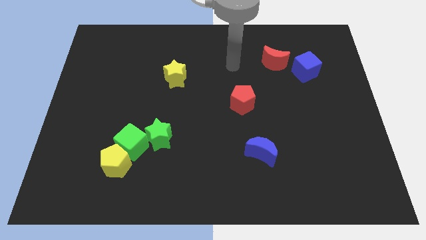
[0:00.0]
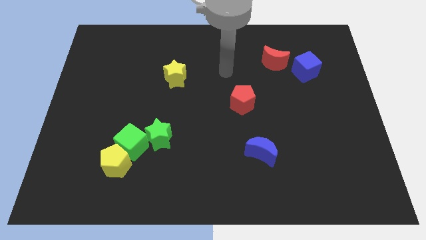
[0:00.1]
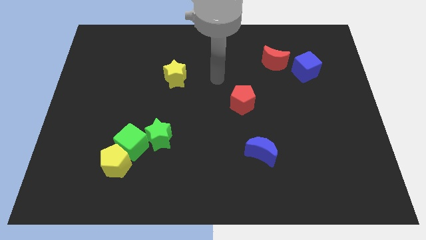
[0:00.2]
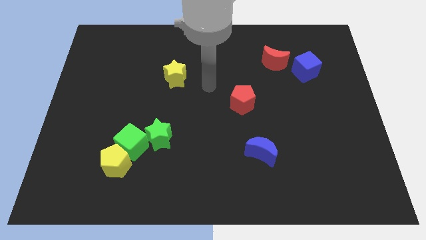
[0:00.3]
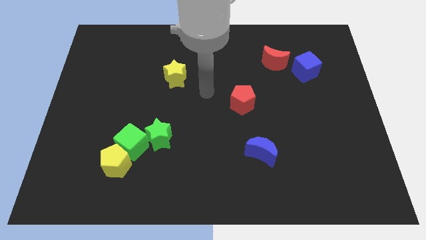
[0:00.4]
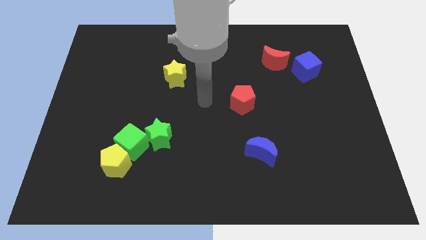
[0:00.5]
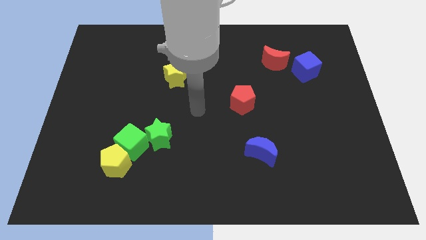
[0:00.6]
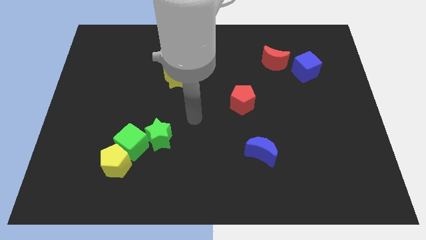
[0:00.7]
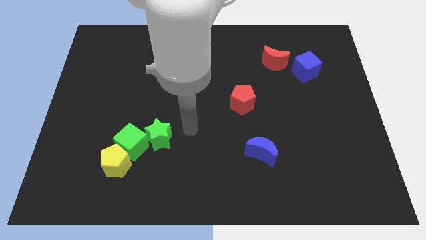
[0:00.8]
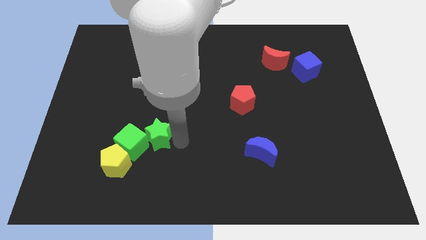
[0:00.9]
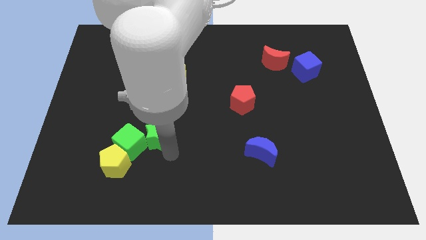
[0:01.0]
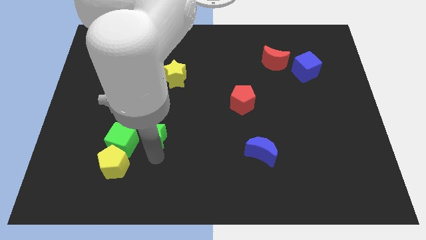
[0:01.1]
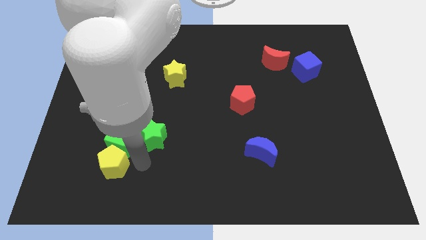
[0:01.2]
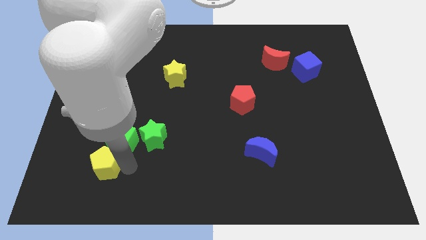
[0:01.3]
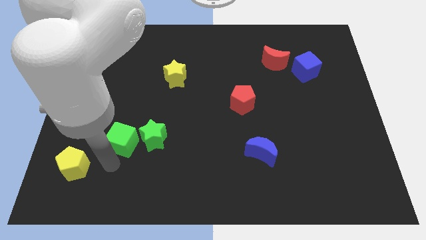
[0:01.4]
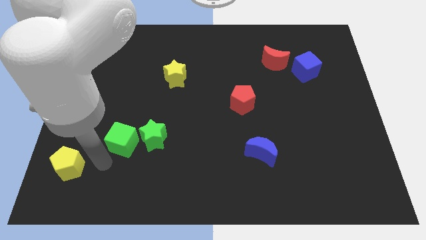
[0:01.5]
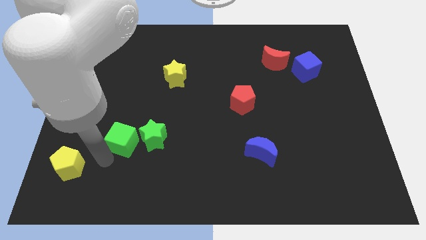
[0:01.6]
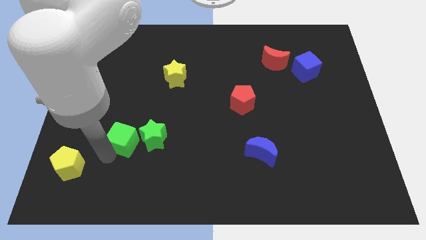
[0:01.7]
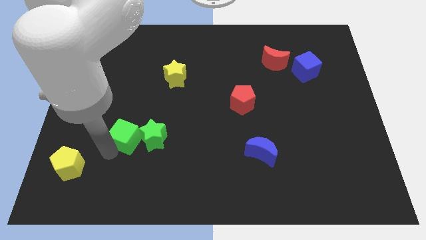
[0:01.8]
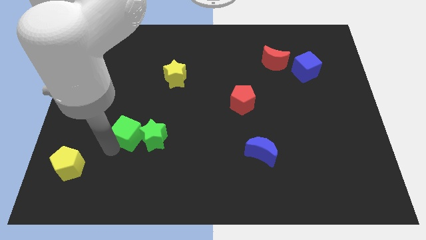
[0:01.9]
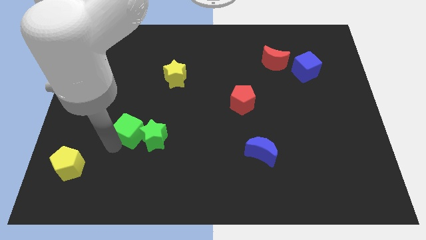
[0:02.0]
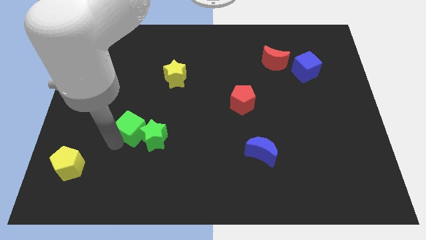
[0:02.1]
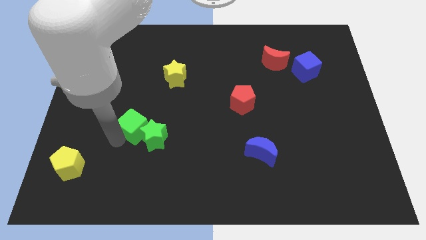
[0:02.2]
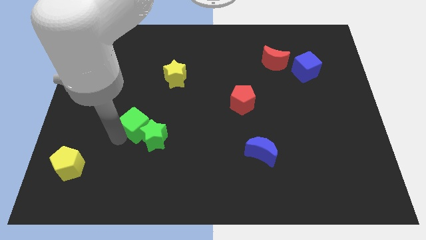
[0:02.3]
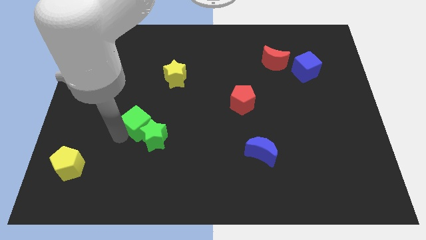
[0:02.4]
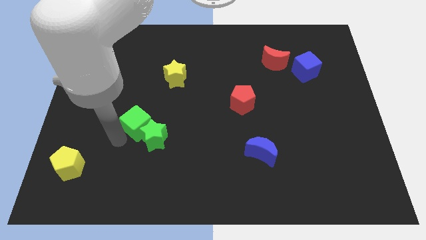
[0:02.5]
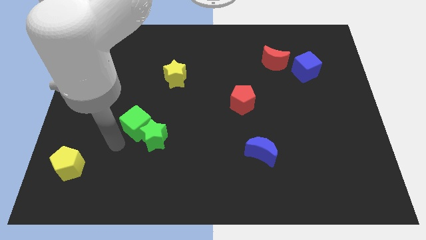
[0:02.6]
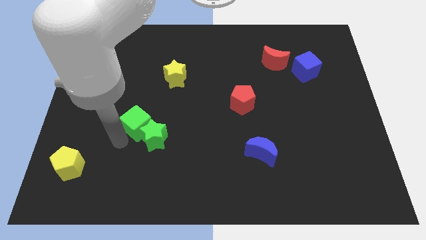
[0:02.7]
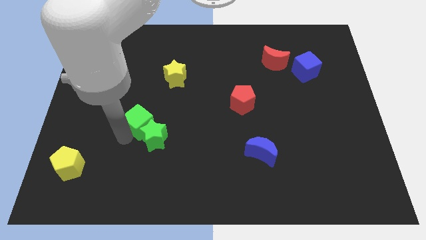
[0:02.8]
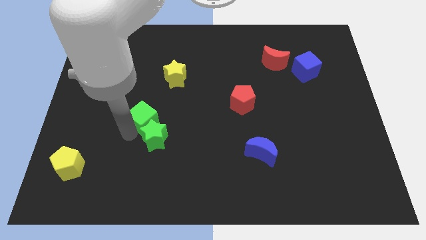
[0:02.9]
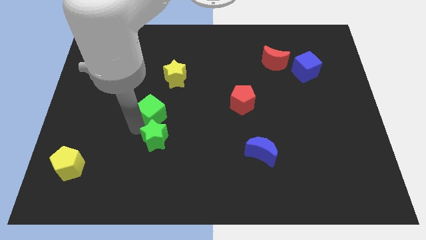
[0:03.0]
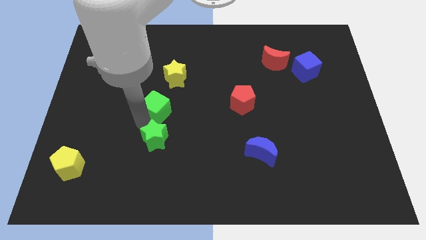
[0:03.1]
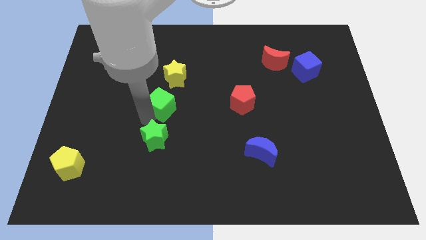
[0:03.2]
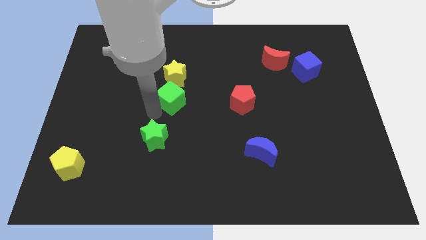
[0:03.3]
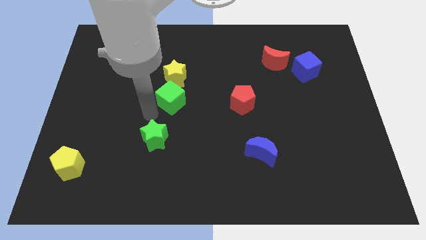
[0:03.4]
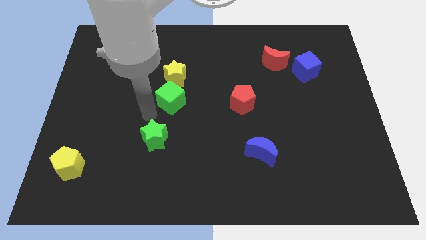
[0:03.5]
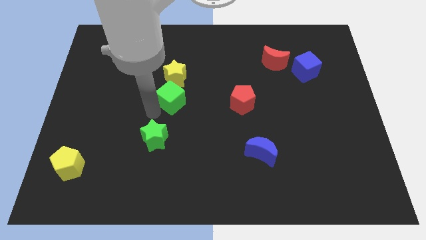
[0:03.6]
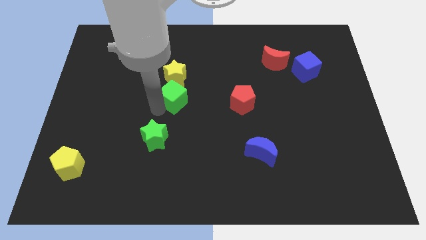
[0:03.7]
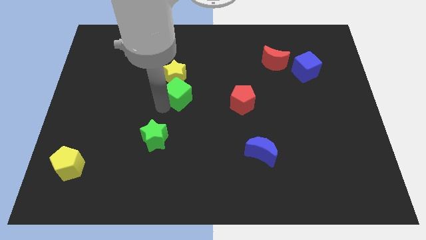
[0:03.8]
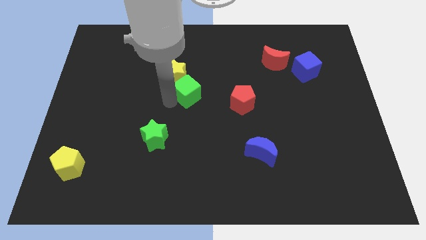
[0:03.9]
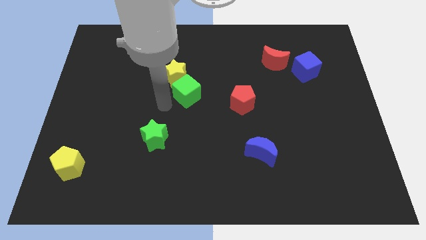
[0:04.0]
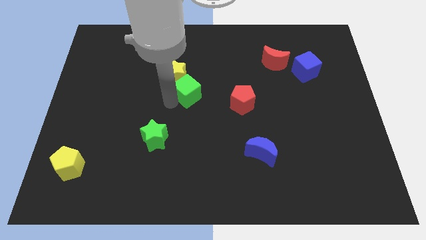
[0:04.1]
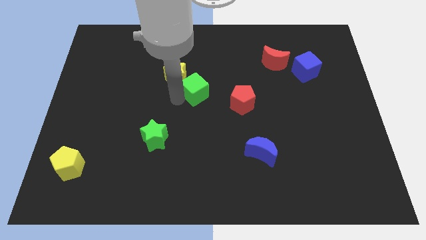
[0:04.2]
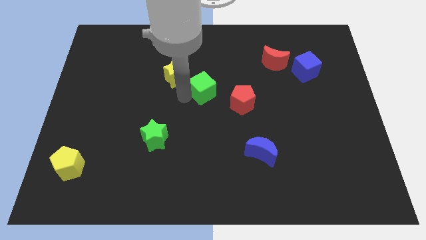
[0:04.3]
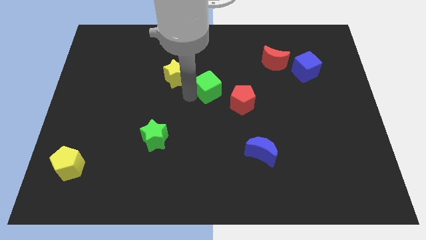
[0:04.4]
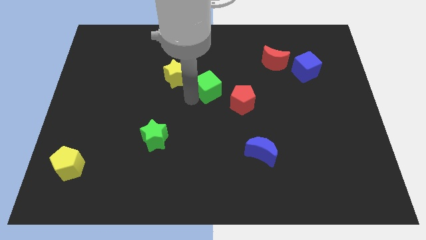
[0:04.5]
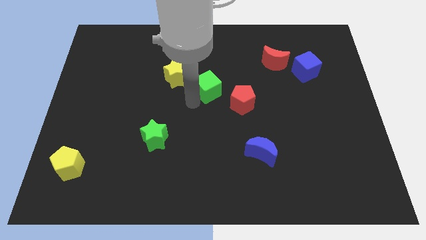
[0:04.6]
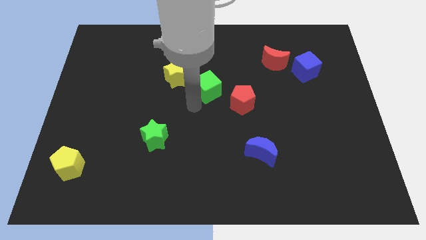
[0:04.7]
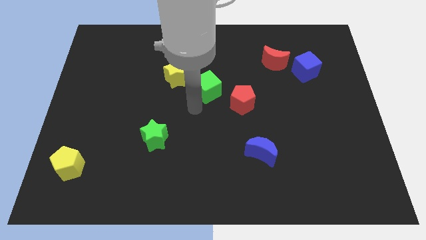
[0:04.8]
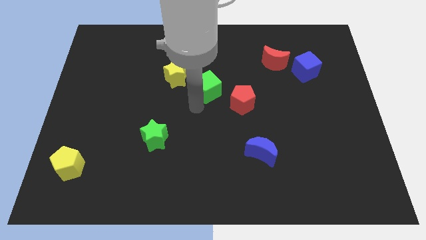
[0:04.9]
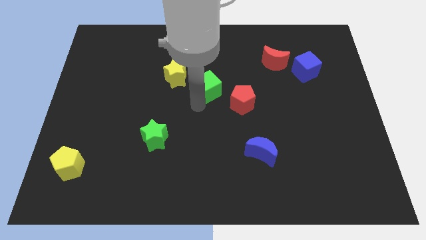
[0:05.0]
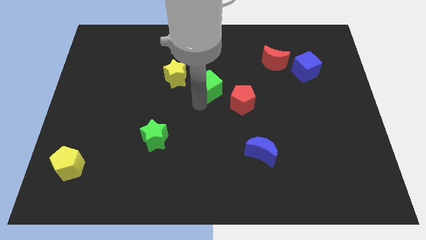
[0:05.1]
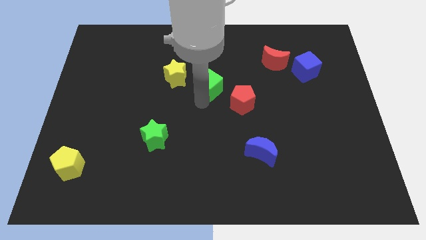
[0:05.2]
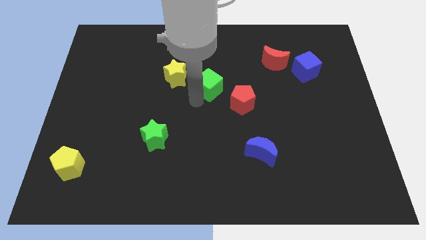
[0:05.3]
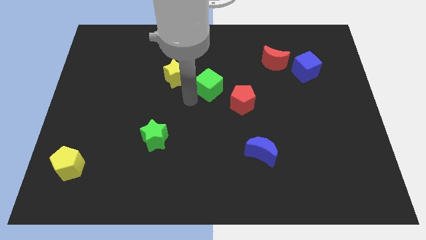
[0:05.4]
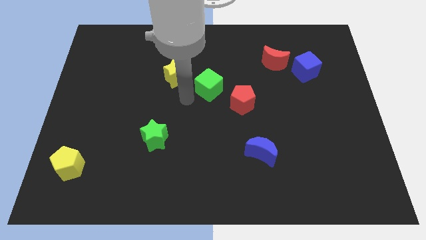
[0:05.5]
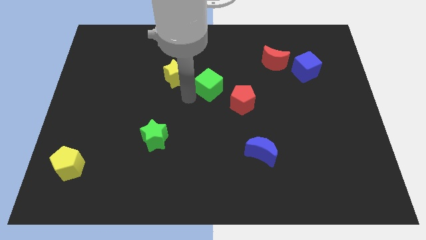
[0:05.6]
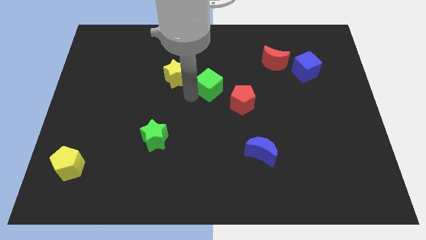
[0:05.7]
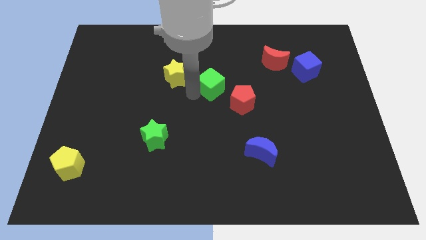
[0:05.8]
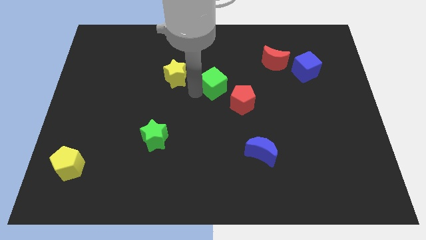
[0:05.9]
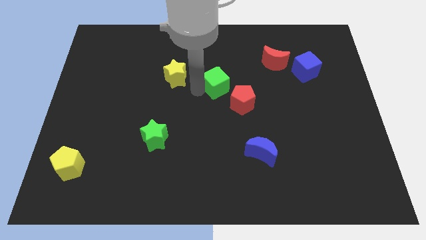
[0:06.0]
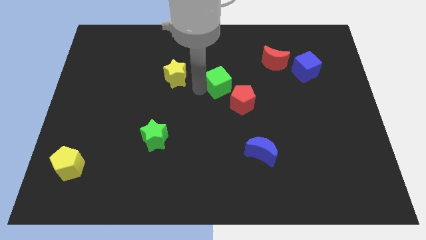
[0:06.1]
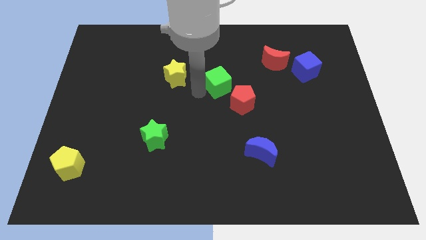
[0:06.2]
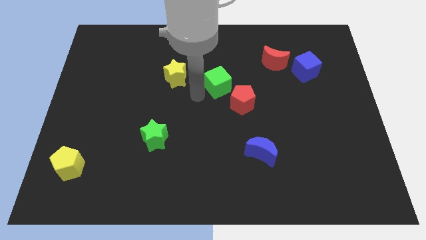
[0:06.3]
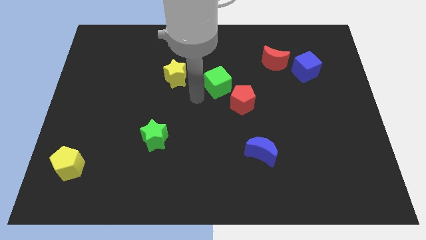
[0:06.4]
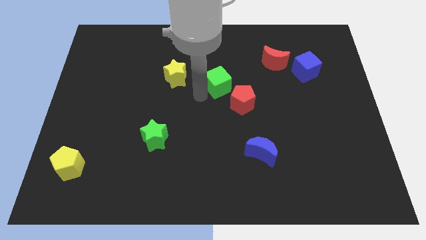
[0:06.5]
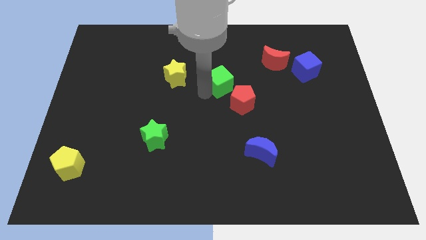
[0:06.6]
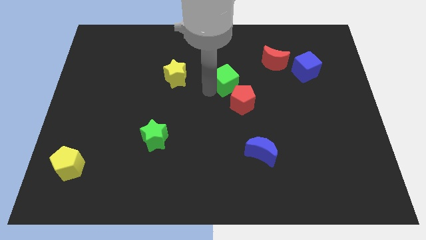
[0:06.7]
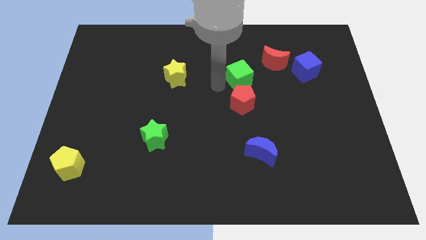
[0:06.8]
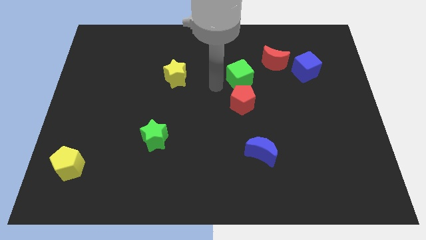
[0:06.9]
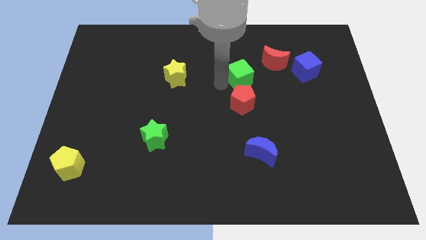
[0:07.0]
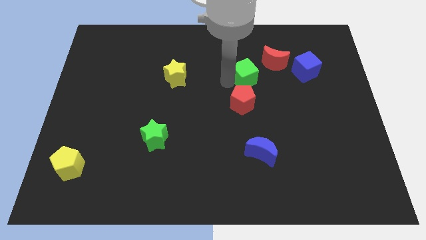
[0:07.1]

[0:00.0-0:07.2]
move the green cube to the left side of the blue cube

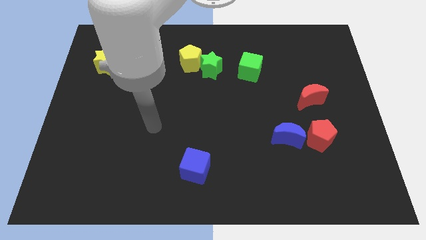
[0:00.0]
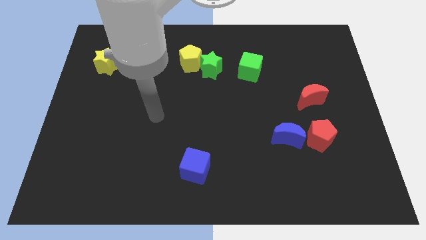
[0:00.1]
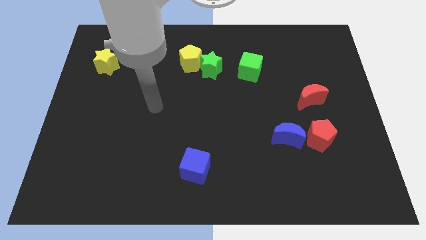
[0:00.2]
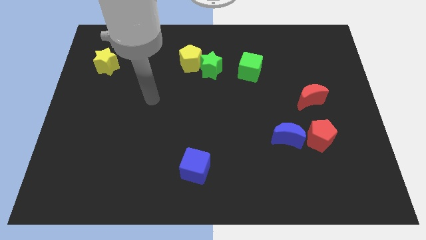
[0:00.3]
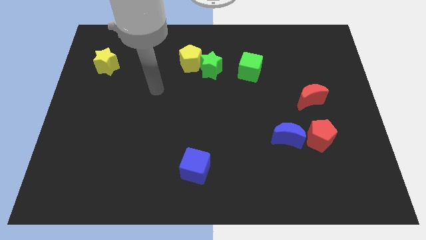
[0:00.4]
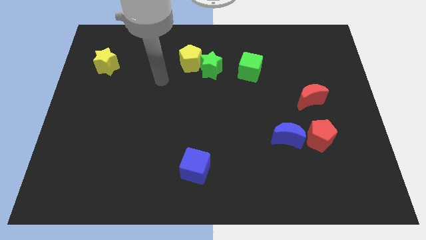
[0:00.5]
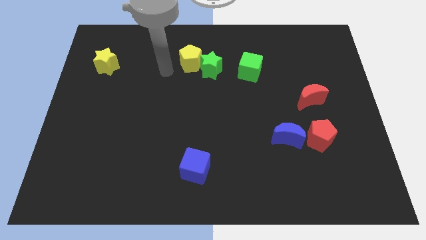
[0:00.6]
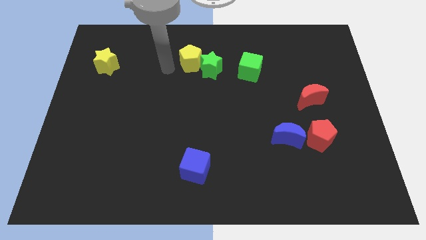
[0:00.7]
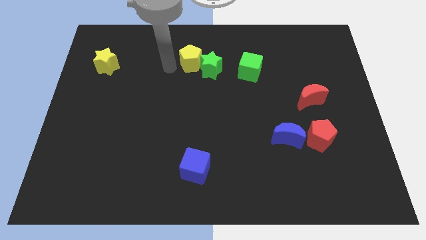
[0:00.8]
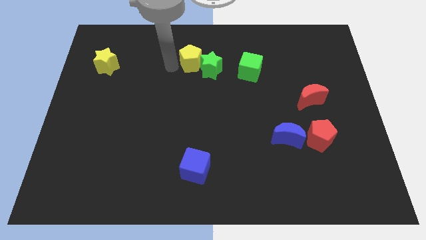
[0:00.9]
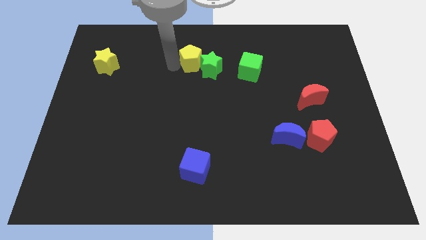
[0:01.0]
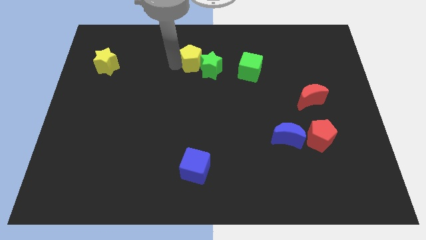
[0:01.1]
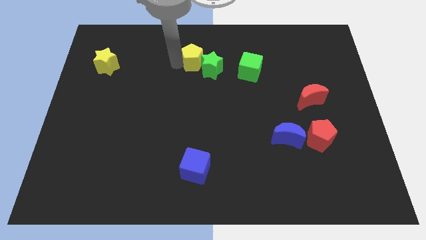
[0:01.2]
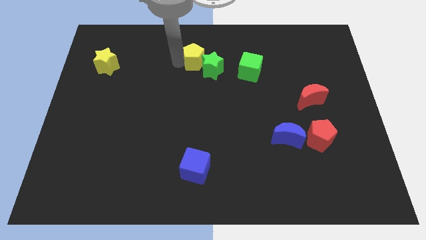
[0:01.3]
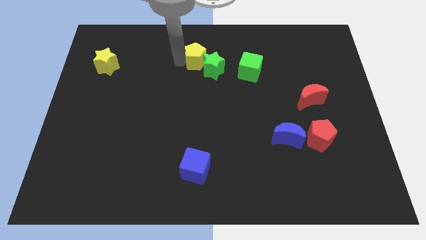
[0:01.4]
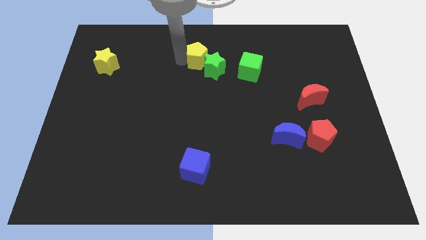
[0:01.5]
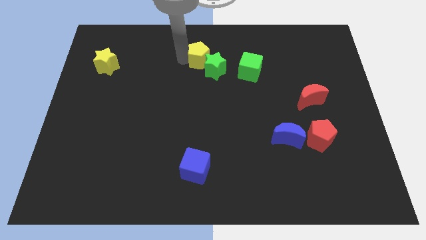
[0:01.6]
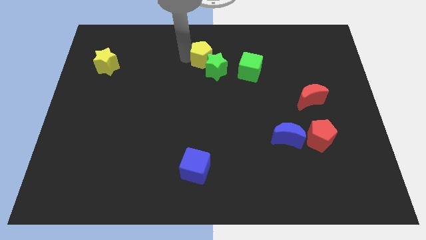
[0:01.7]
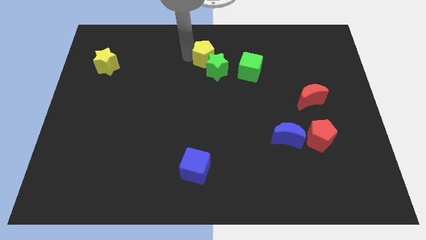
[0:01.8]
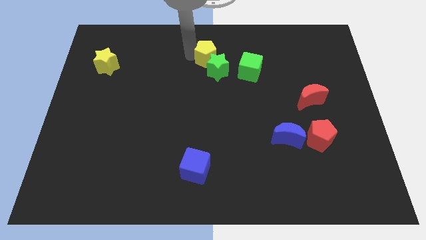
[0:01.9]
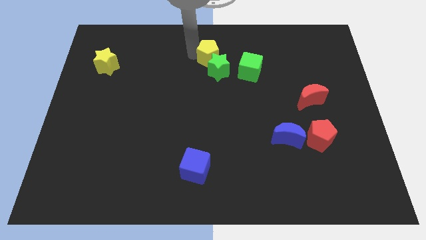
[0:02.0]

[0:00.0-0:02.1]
put the yellow pentagon to the top left of the green cube
